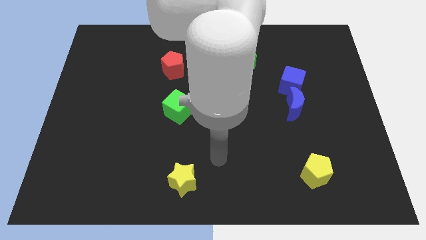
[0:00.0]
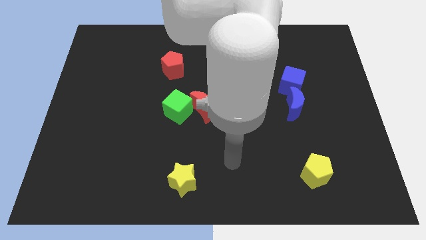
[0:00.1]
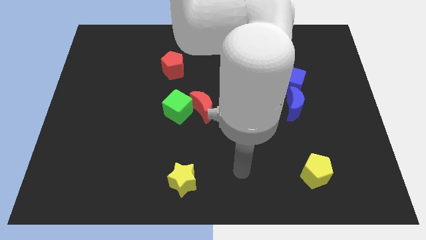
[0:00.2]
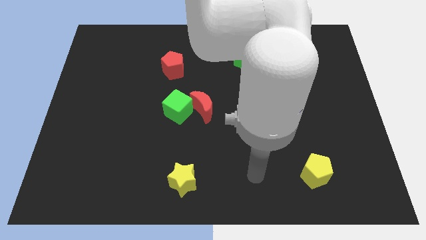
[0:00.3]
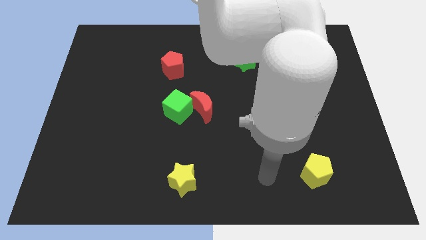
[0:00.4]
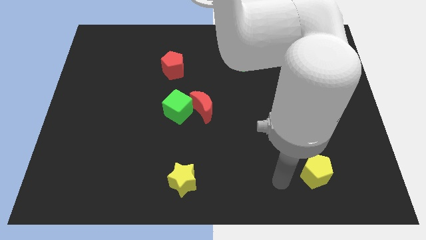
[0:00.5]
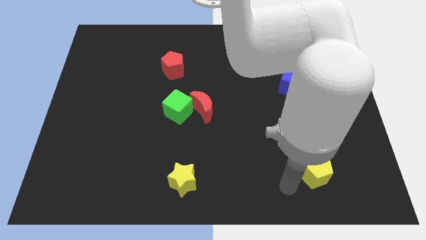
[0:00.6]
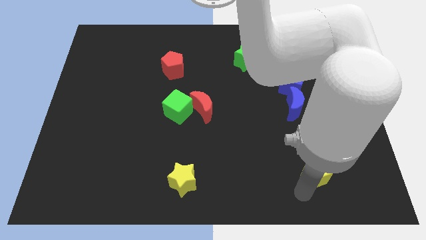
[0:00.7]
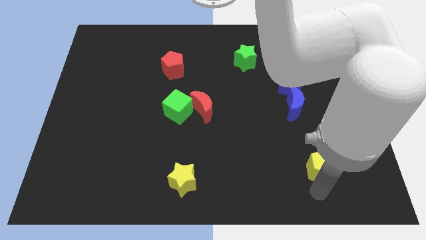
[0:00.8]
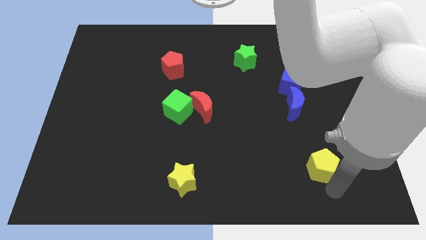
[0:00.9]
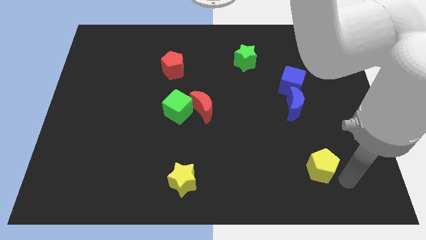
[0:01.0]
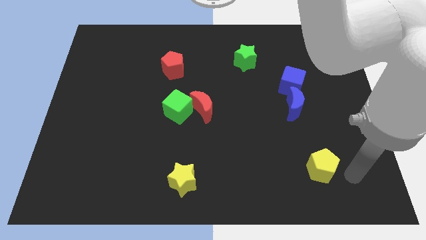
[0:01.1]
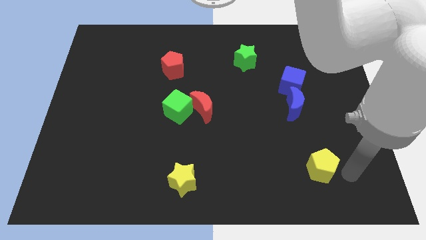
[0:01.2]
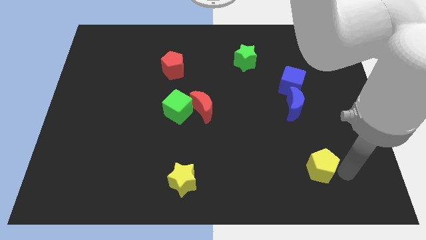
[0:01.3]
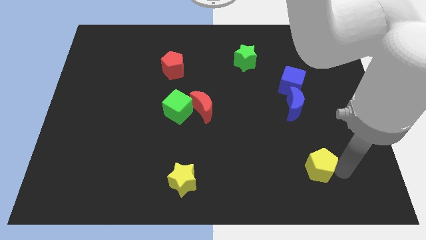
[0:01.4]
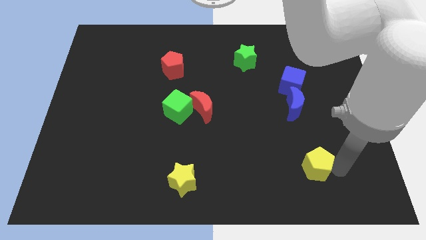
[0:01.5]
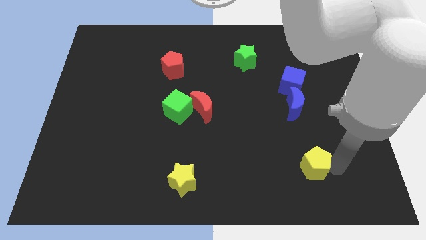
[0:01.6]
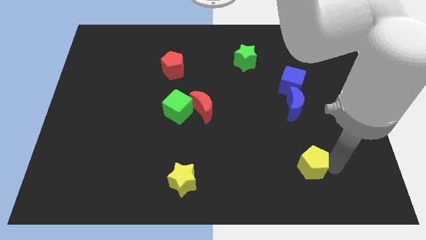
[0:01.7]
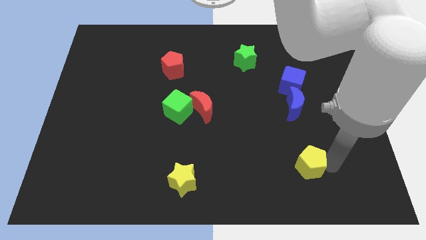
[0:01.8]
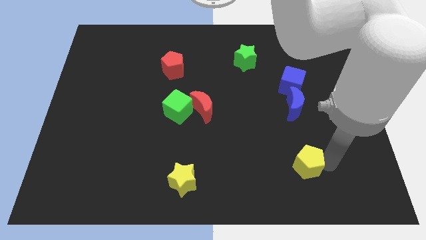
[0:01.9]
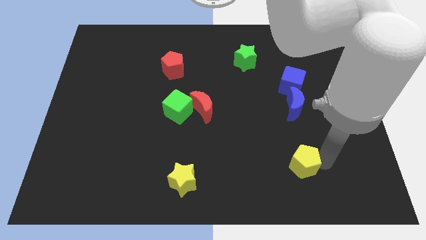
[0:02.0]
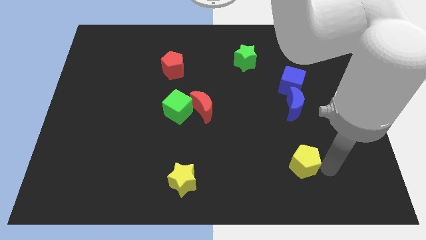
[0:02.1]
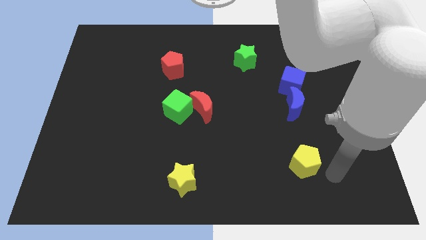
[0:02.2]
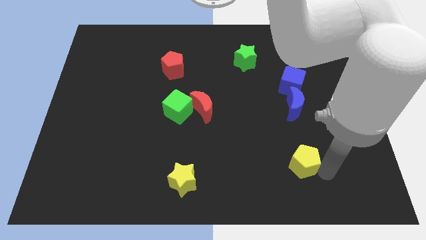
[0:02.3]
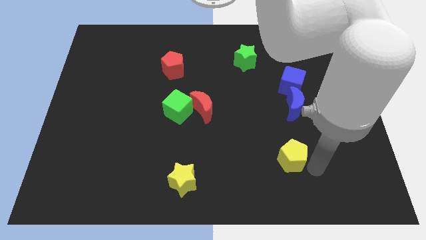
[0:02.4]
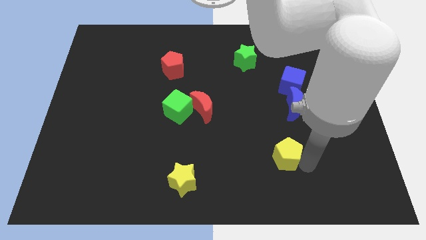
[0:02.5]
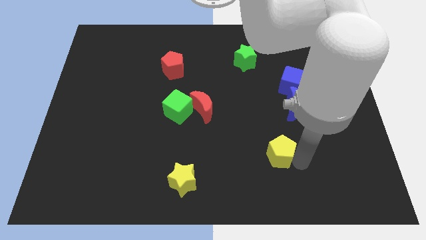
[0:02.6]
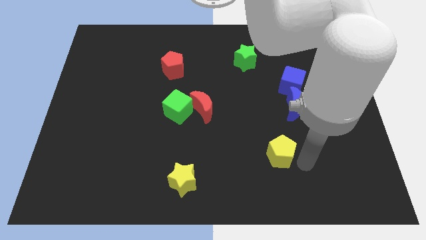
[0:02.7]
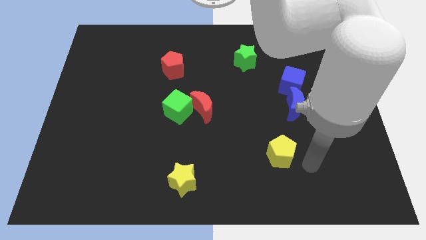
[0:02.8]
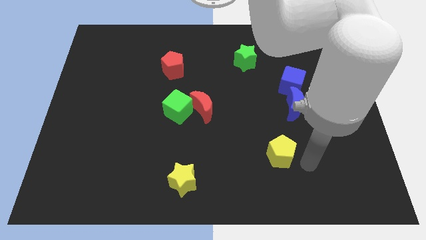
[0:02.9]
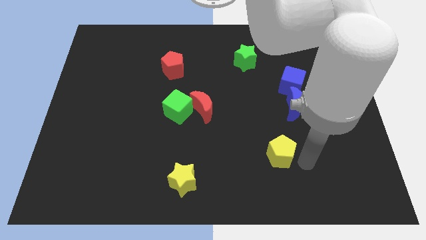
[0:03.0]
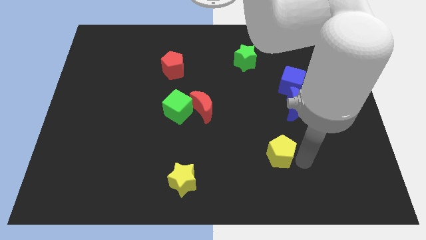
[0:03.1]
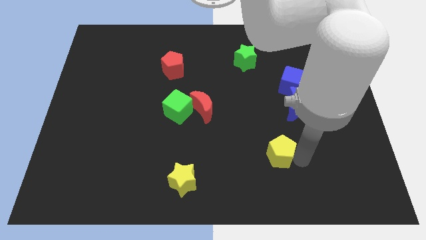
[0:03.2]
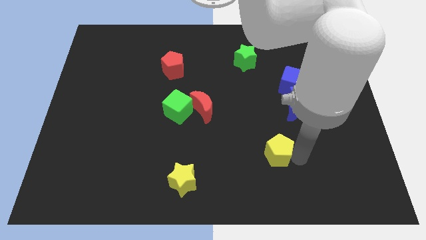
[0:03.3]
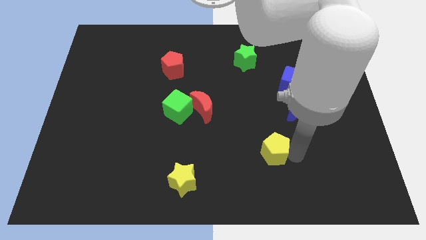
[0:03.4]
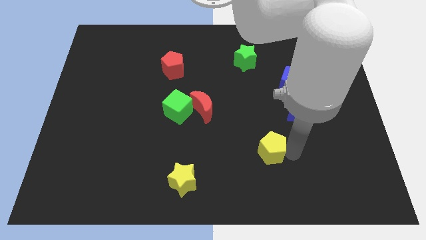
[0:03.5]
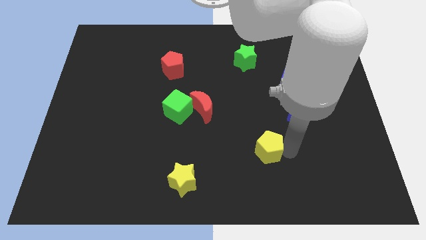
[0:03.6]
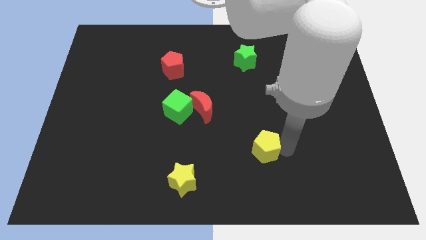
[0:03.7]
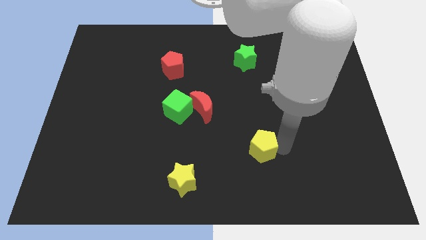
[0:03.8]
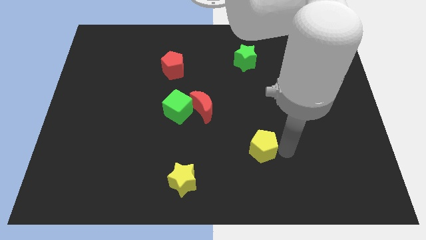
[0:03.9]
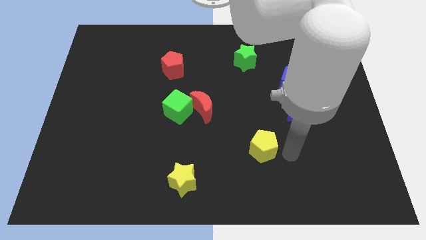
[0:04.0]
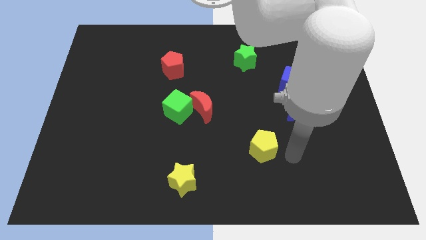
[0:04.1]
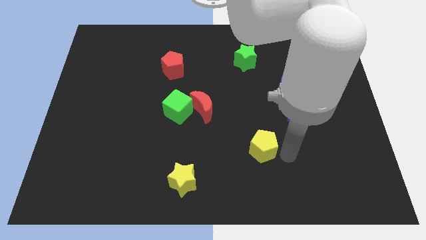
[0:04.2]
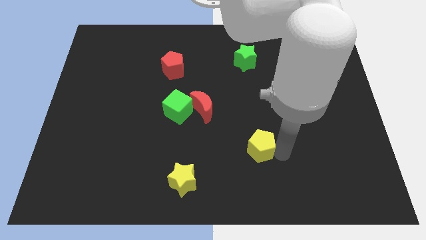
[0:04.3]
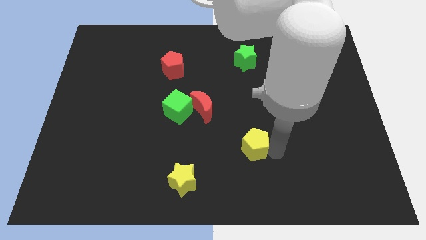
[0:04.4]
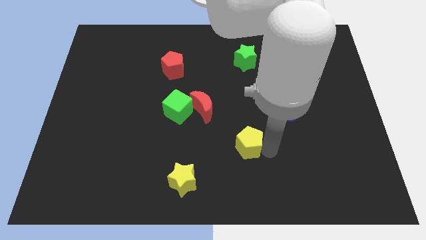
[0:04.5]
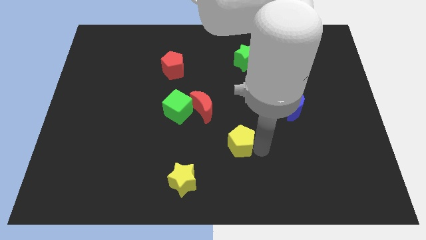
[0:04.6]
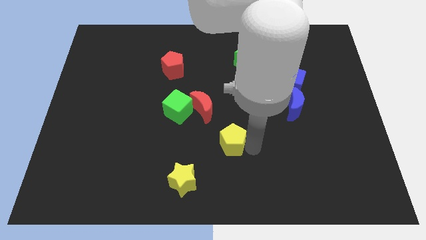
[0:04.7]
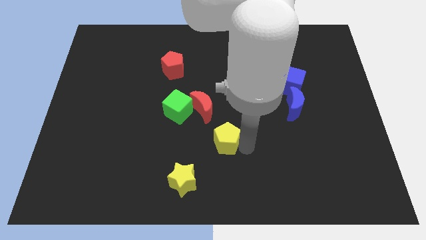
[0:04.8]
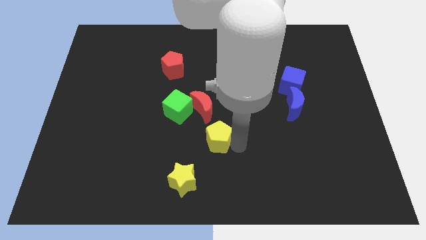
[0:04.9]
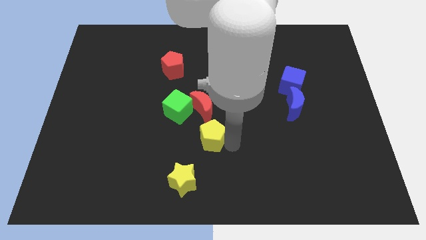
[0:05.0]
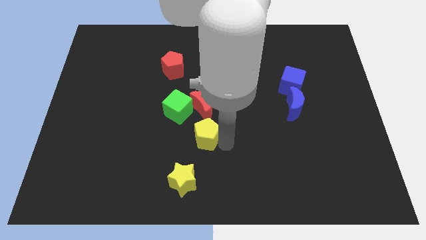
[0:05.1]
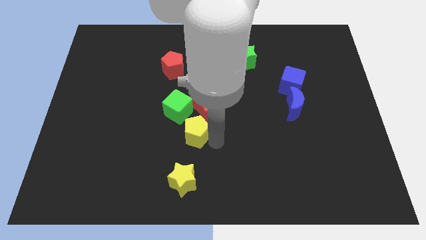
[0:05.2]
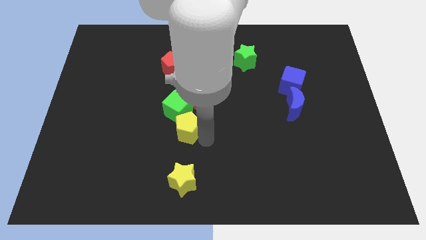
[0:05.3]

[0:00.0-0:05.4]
put the yellow pentagon close to the green cube

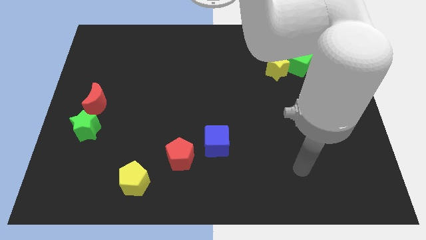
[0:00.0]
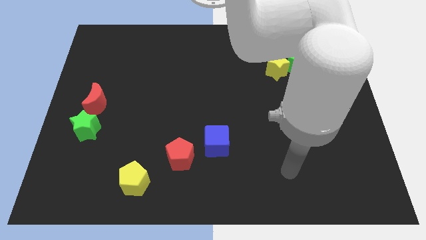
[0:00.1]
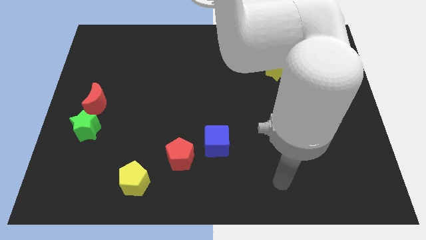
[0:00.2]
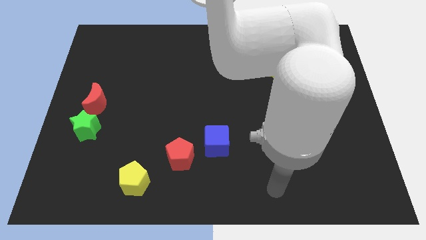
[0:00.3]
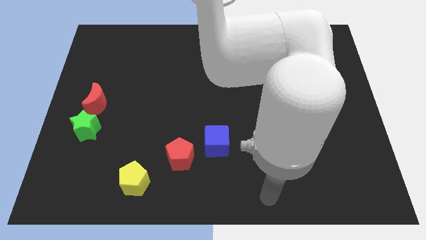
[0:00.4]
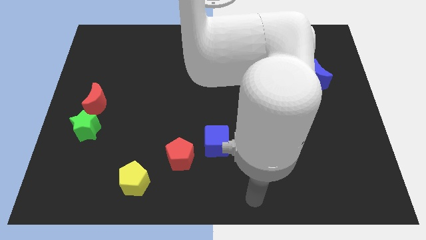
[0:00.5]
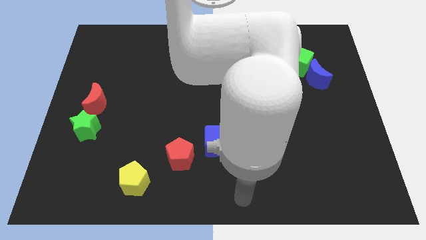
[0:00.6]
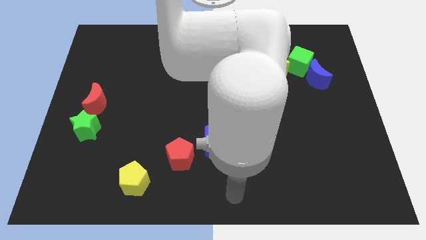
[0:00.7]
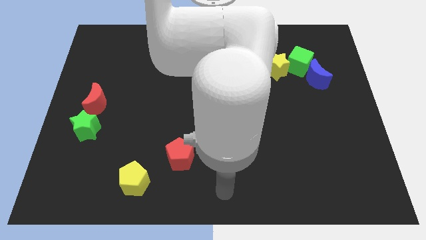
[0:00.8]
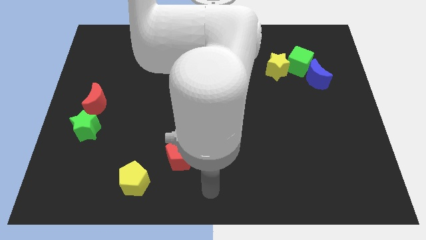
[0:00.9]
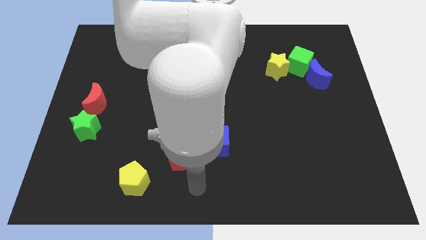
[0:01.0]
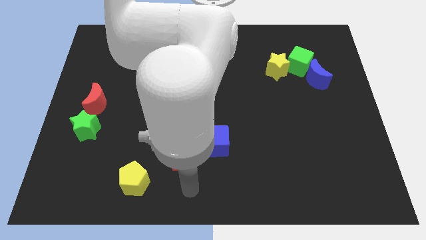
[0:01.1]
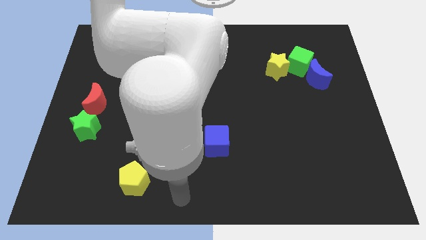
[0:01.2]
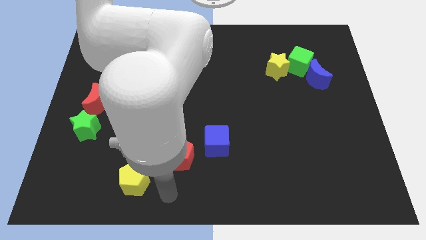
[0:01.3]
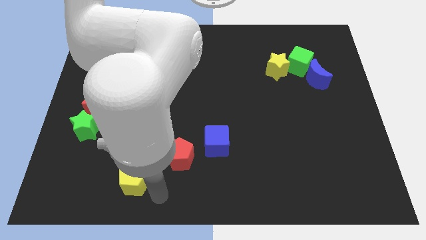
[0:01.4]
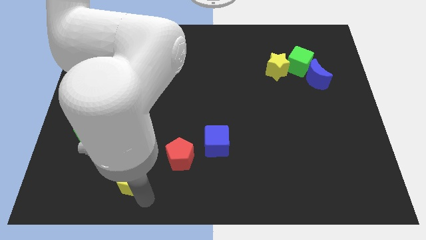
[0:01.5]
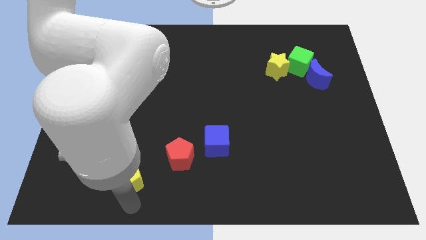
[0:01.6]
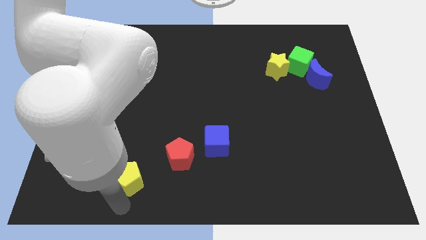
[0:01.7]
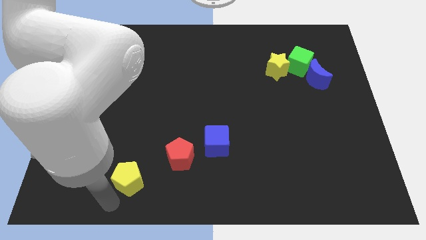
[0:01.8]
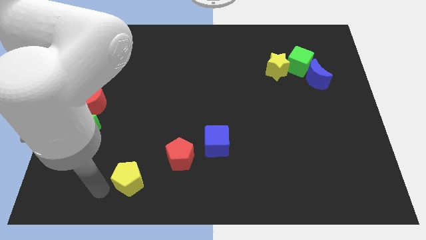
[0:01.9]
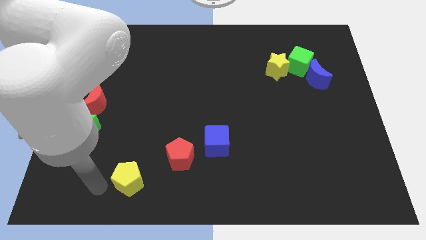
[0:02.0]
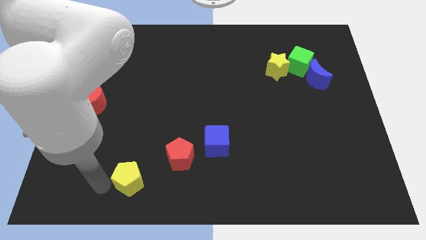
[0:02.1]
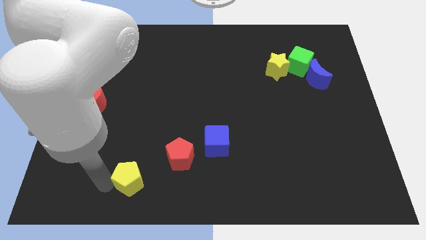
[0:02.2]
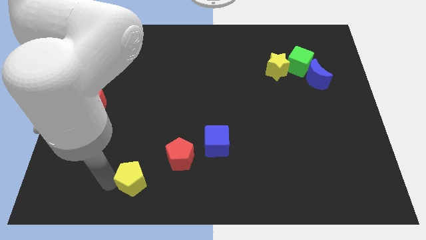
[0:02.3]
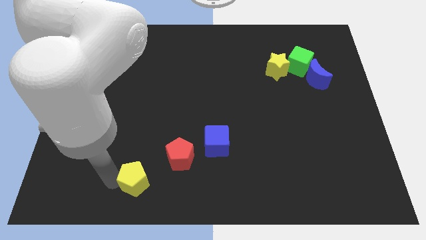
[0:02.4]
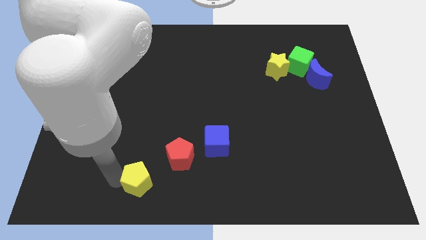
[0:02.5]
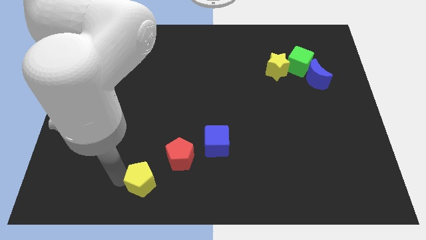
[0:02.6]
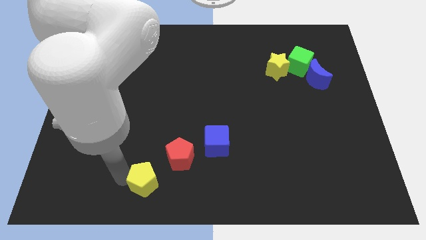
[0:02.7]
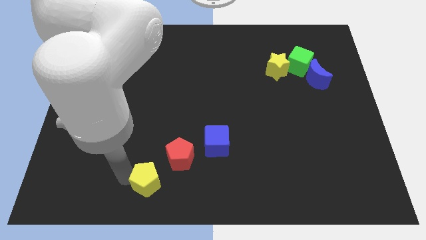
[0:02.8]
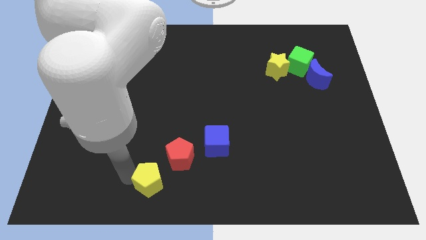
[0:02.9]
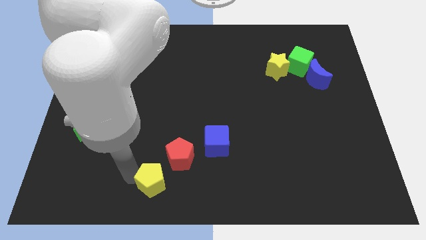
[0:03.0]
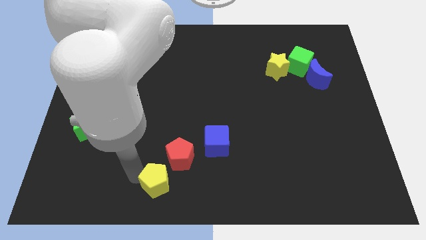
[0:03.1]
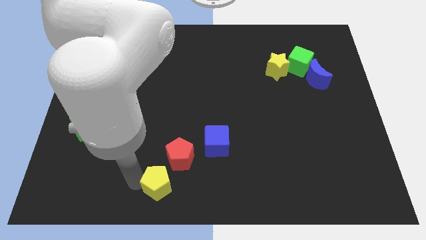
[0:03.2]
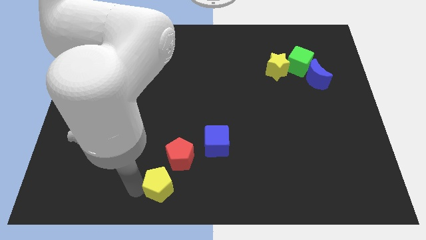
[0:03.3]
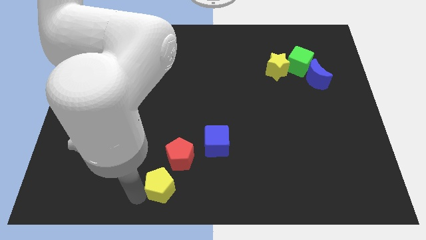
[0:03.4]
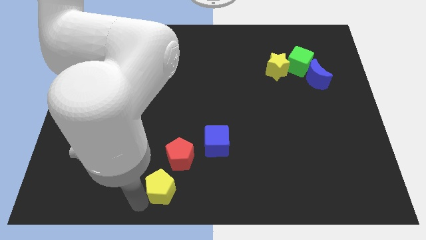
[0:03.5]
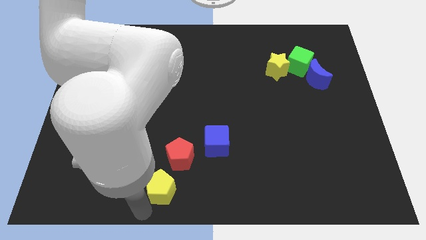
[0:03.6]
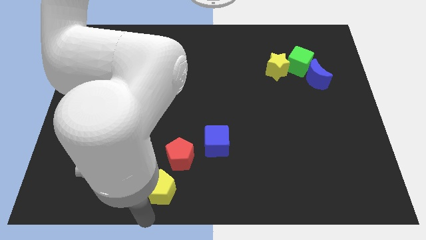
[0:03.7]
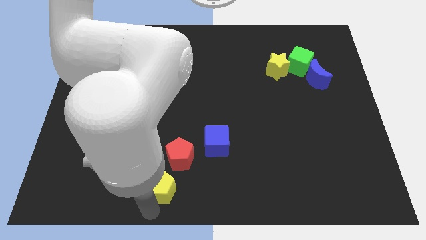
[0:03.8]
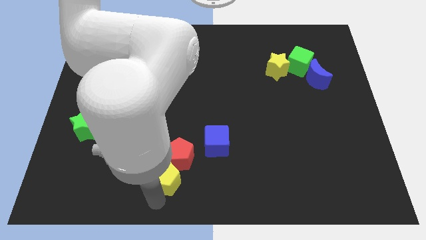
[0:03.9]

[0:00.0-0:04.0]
slide the yellow pentagon to the red pentagon
